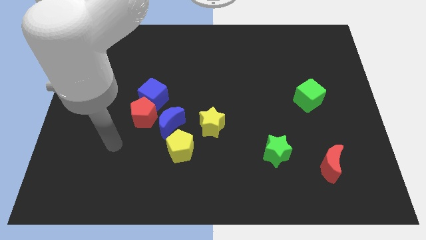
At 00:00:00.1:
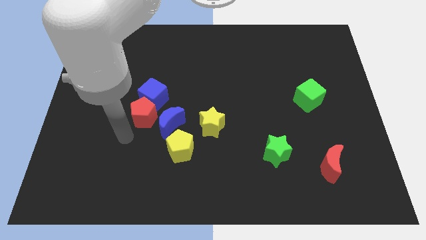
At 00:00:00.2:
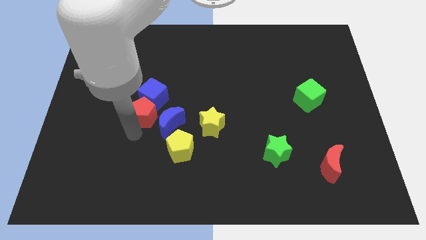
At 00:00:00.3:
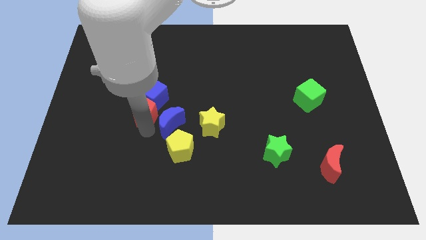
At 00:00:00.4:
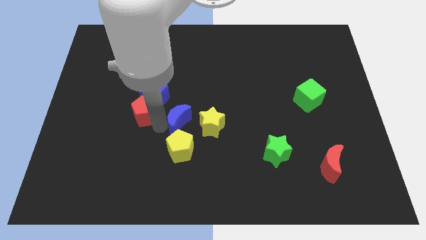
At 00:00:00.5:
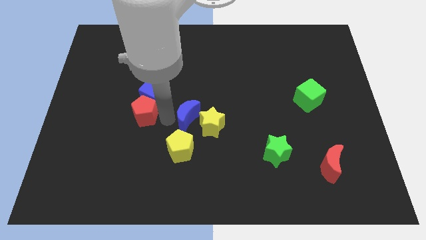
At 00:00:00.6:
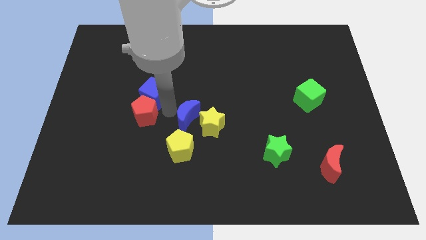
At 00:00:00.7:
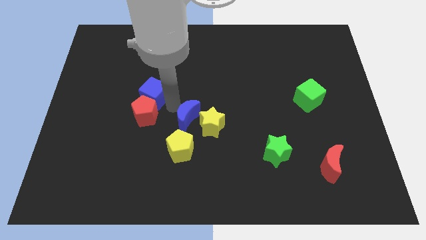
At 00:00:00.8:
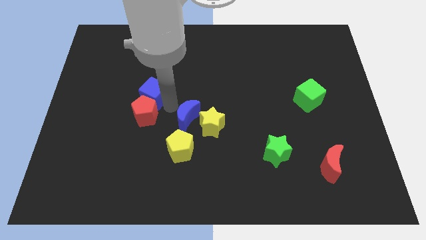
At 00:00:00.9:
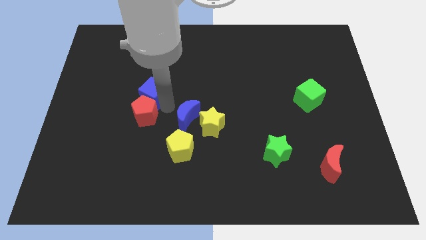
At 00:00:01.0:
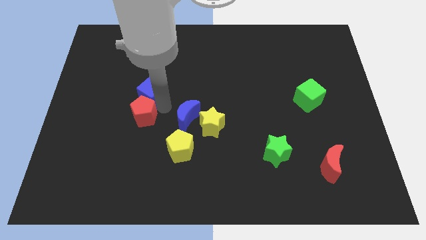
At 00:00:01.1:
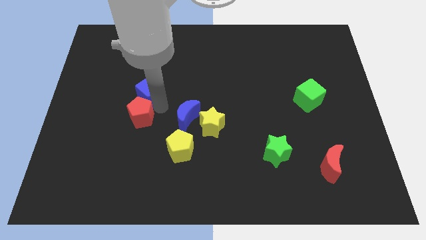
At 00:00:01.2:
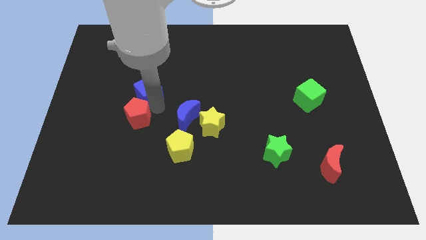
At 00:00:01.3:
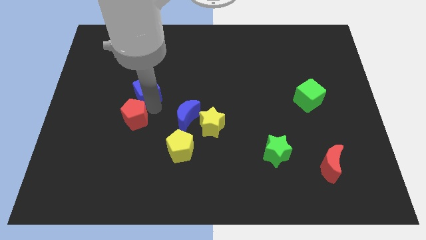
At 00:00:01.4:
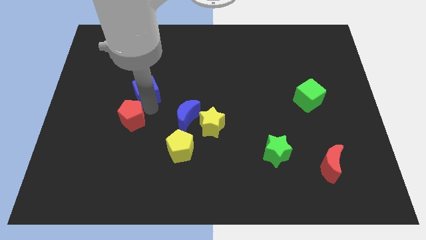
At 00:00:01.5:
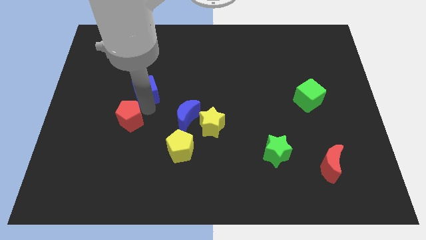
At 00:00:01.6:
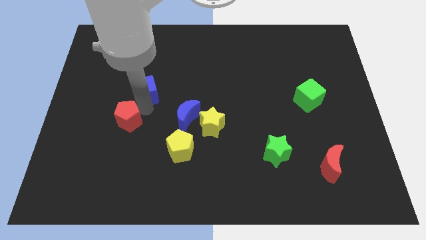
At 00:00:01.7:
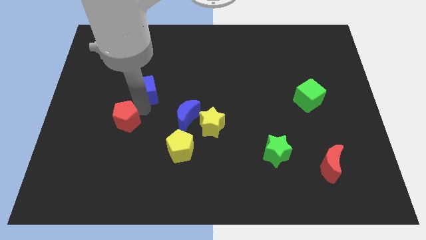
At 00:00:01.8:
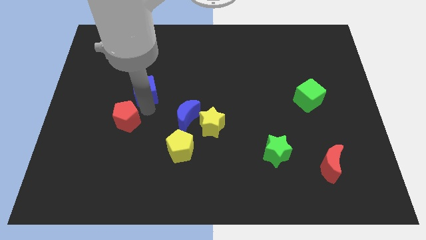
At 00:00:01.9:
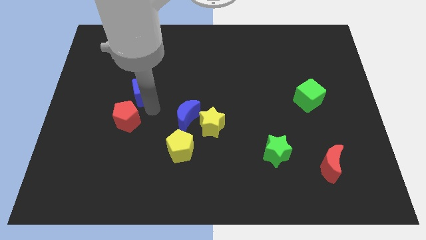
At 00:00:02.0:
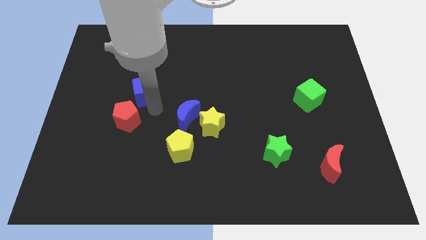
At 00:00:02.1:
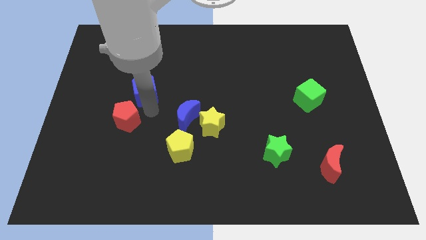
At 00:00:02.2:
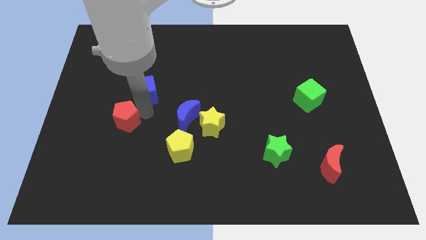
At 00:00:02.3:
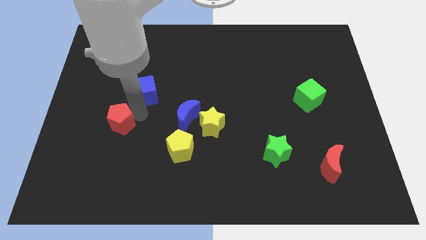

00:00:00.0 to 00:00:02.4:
pull the red pentagon apart from the blue cube and blue moon

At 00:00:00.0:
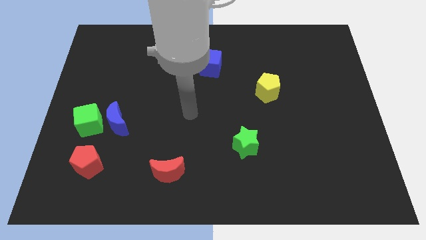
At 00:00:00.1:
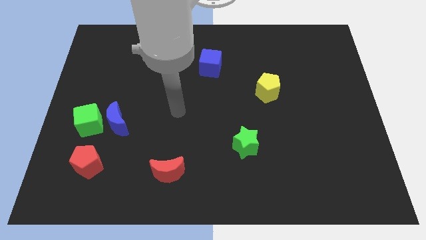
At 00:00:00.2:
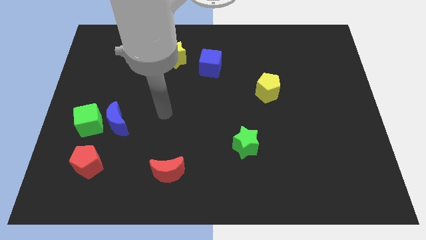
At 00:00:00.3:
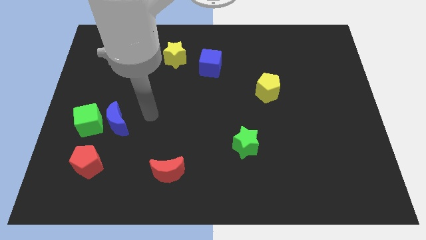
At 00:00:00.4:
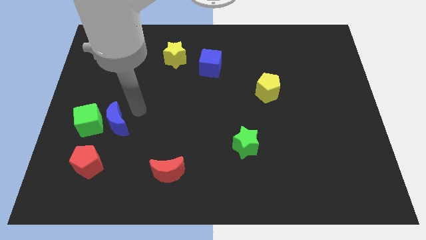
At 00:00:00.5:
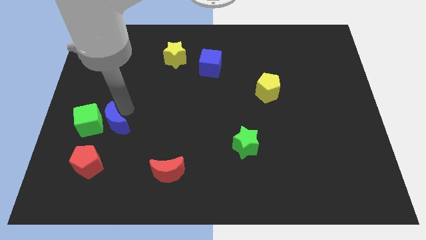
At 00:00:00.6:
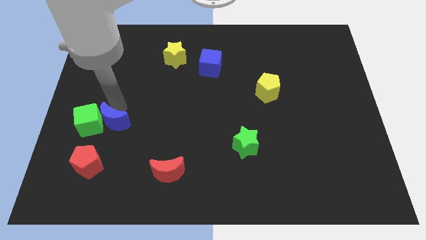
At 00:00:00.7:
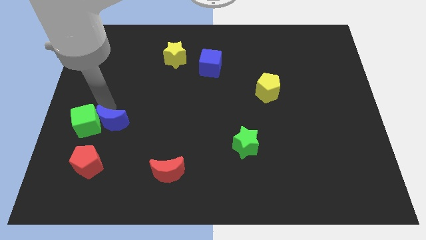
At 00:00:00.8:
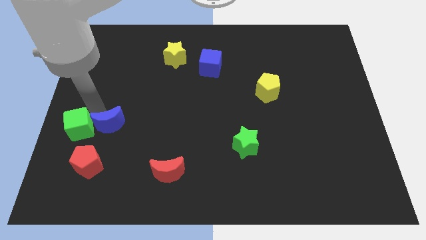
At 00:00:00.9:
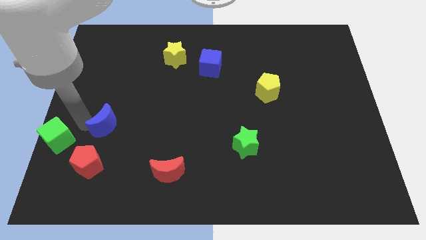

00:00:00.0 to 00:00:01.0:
move the blue moon away from the green cube

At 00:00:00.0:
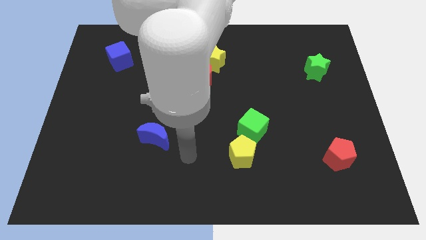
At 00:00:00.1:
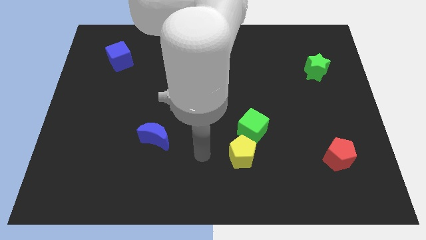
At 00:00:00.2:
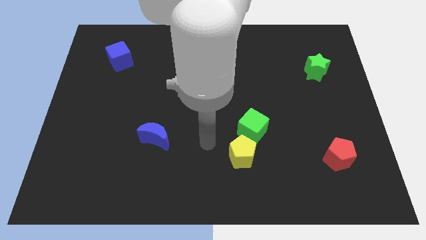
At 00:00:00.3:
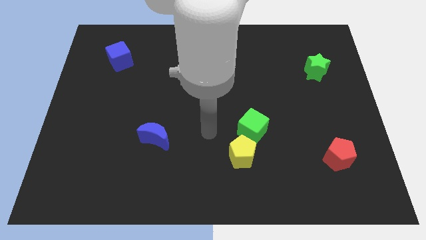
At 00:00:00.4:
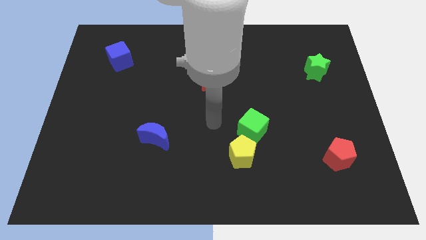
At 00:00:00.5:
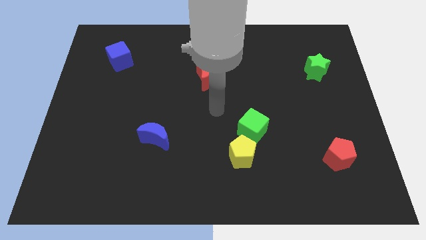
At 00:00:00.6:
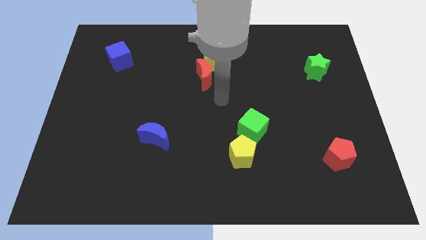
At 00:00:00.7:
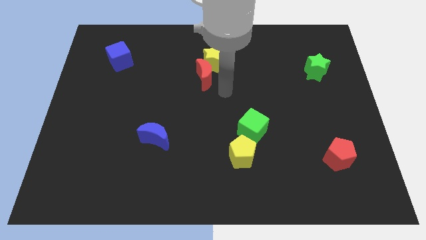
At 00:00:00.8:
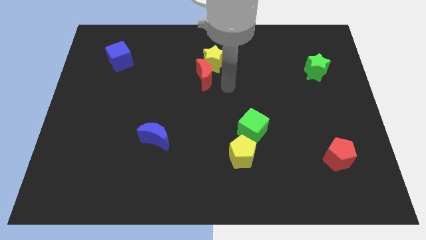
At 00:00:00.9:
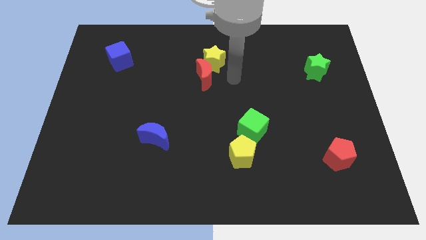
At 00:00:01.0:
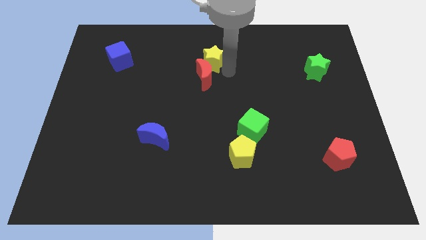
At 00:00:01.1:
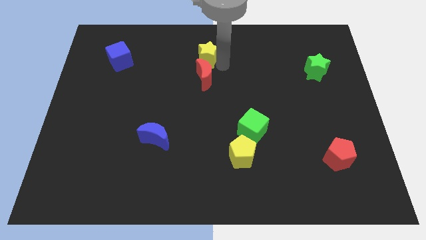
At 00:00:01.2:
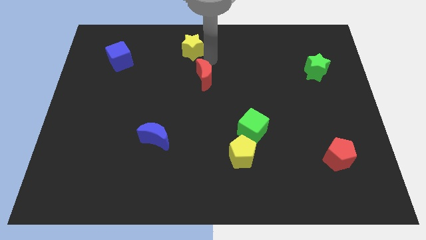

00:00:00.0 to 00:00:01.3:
move the red moon away from the yellow star

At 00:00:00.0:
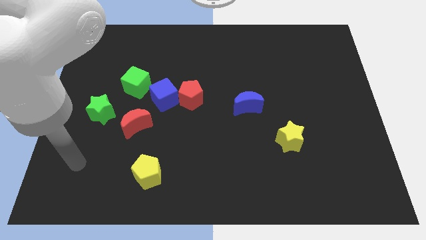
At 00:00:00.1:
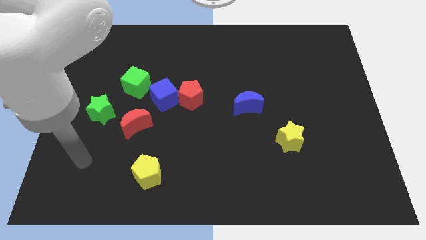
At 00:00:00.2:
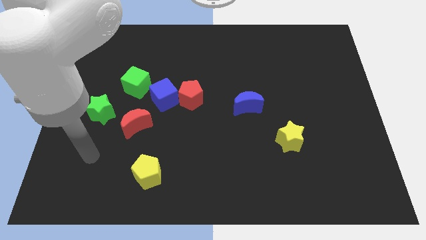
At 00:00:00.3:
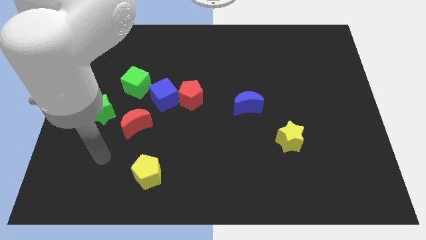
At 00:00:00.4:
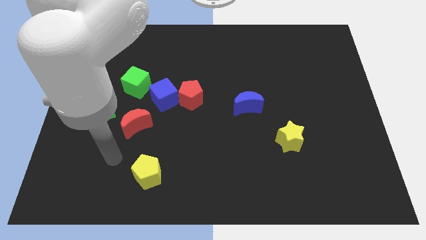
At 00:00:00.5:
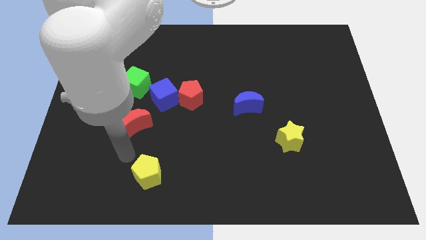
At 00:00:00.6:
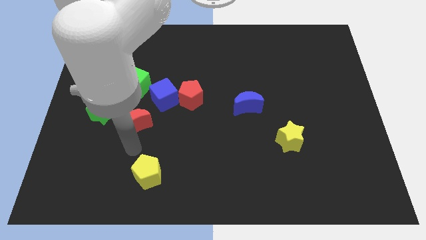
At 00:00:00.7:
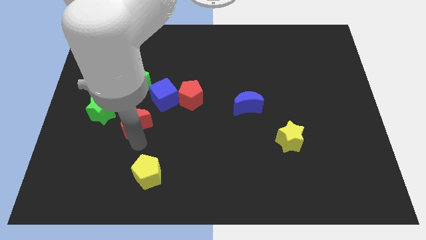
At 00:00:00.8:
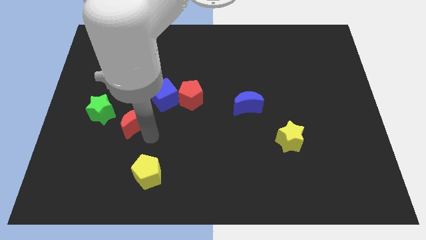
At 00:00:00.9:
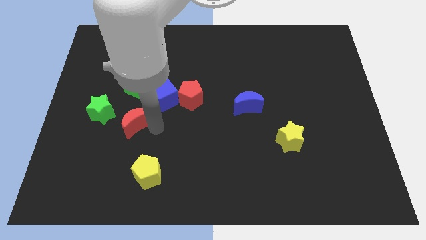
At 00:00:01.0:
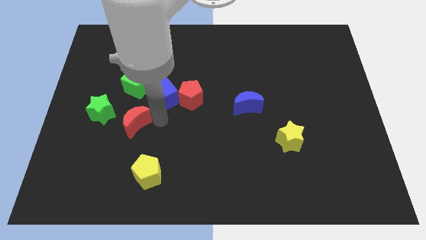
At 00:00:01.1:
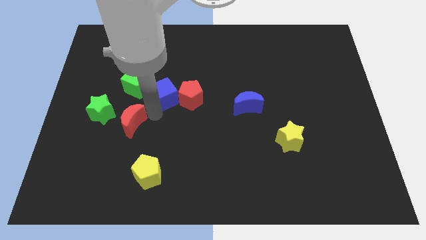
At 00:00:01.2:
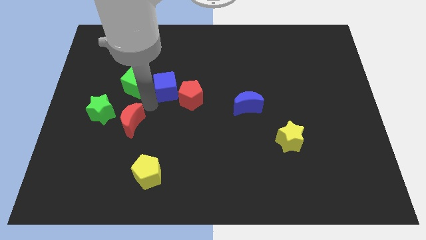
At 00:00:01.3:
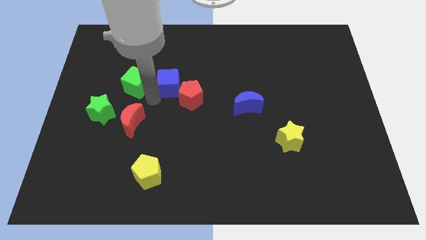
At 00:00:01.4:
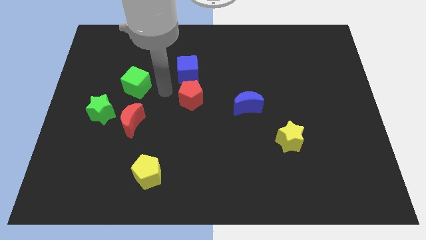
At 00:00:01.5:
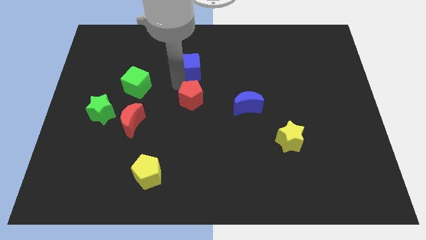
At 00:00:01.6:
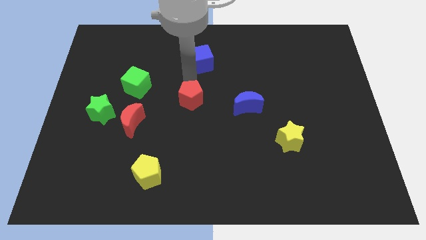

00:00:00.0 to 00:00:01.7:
move the red pentagon away from the blue cube

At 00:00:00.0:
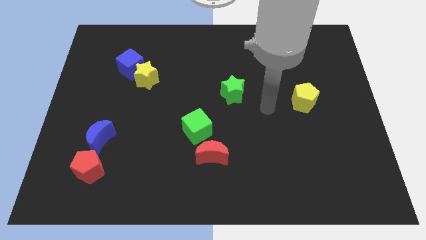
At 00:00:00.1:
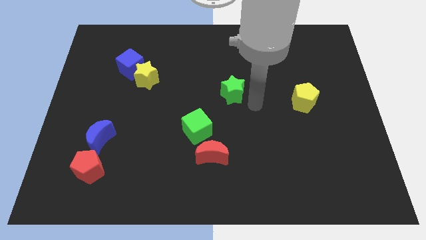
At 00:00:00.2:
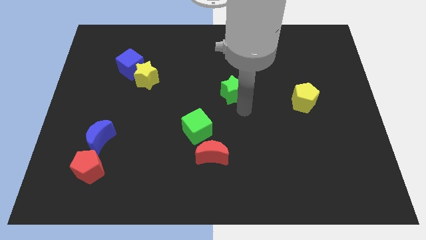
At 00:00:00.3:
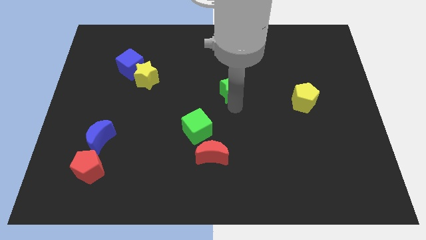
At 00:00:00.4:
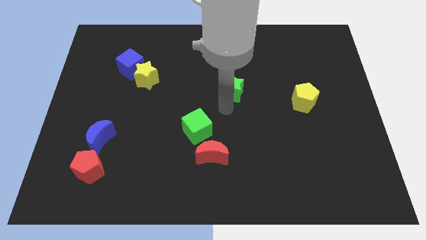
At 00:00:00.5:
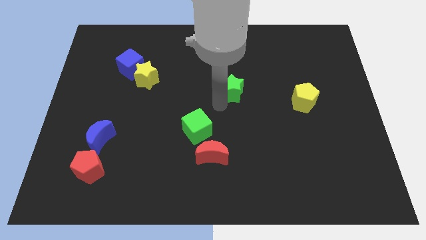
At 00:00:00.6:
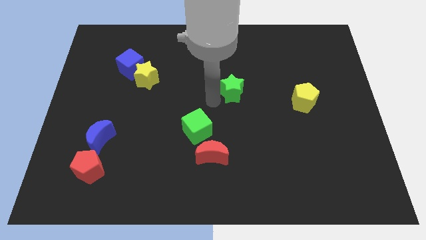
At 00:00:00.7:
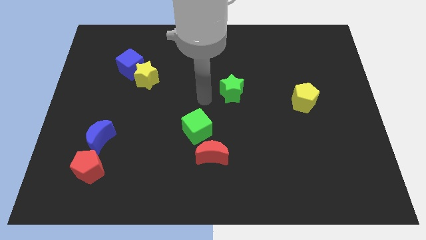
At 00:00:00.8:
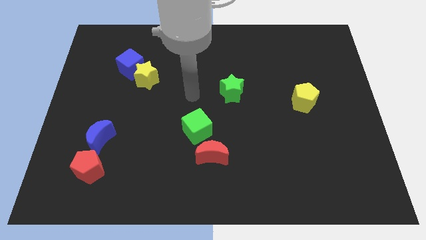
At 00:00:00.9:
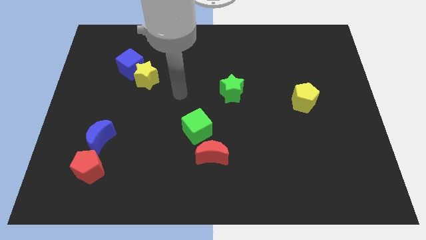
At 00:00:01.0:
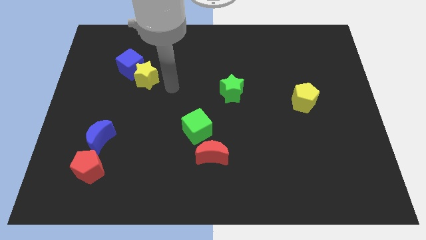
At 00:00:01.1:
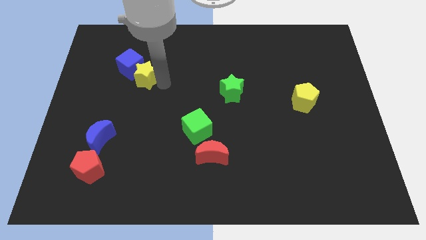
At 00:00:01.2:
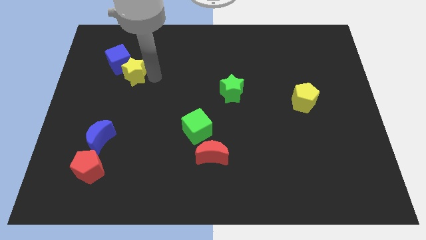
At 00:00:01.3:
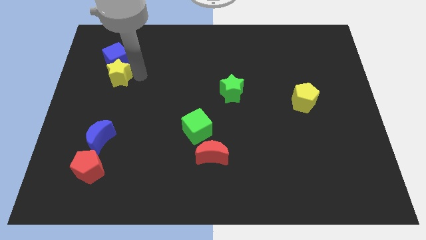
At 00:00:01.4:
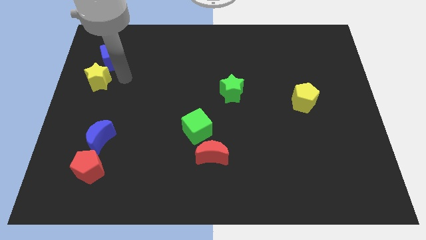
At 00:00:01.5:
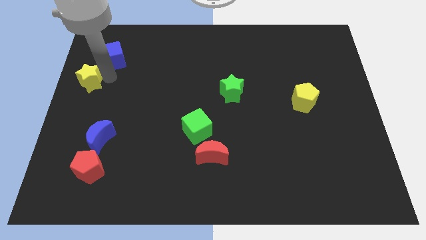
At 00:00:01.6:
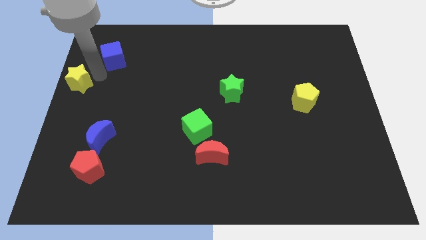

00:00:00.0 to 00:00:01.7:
pull the blue cube apart from the yellow star

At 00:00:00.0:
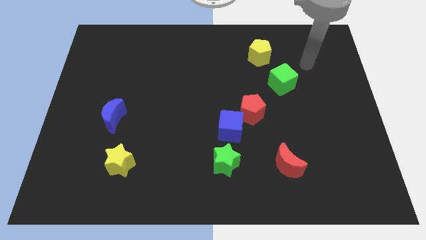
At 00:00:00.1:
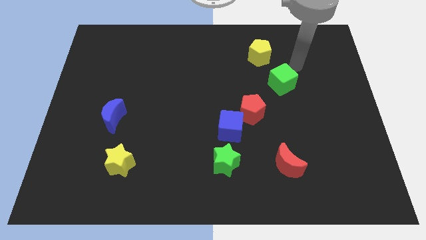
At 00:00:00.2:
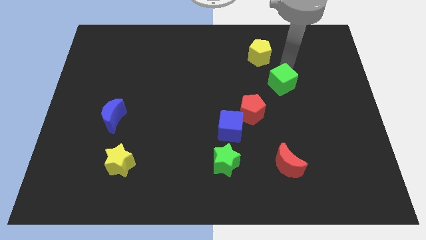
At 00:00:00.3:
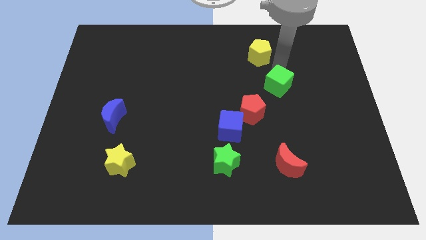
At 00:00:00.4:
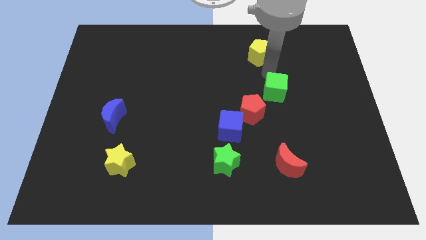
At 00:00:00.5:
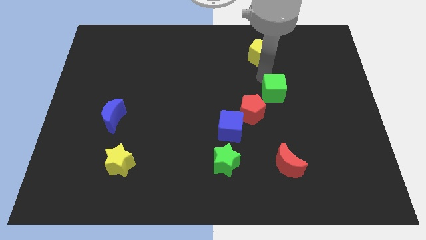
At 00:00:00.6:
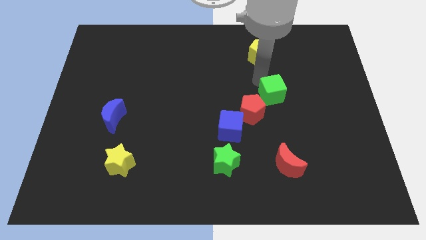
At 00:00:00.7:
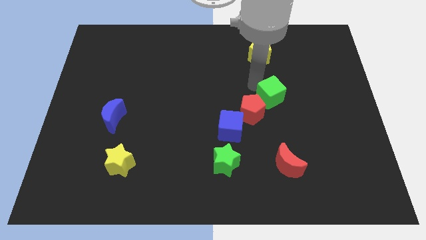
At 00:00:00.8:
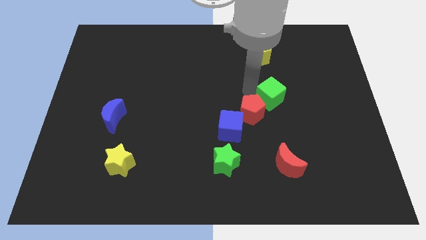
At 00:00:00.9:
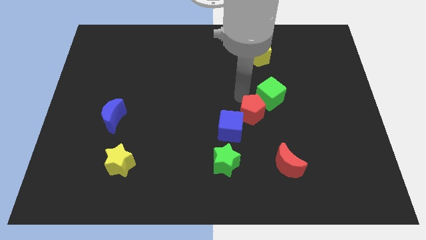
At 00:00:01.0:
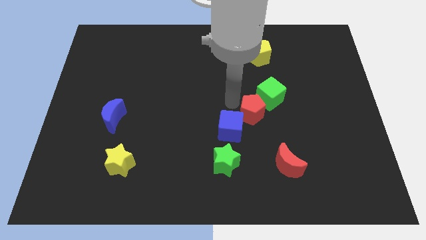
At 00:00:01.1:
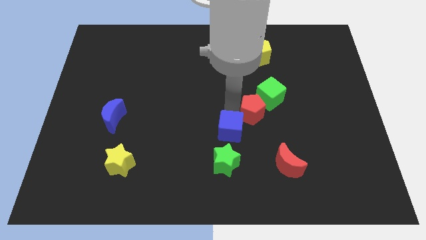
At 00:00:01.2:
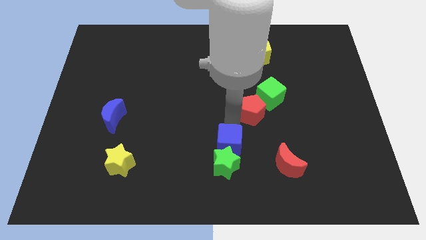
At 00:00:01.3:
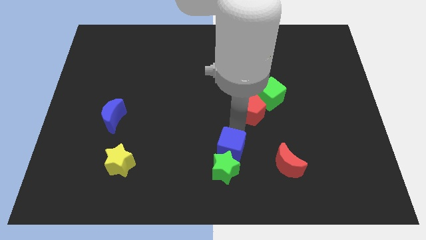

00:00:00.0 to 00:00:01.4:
pull the red pentagon apart from the blue cube
